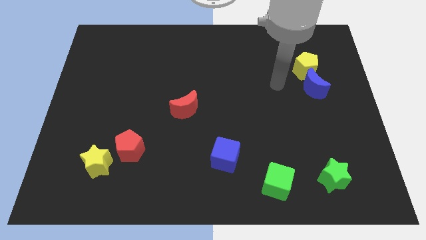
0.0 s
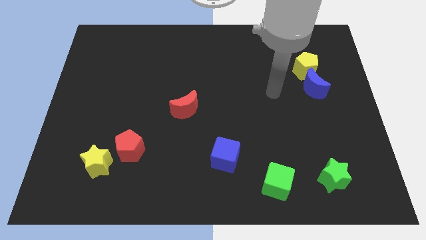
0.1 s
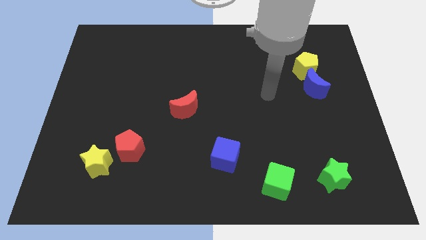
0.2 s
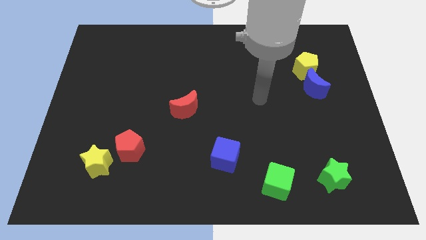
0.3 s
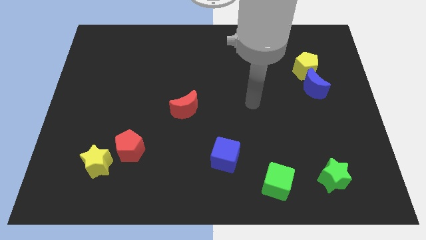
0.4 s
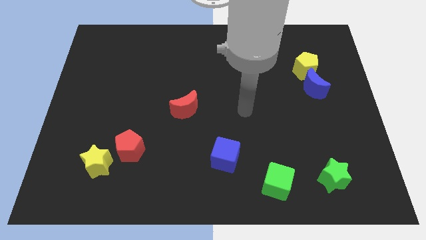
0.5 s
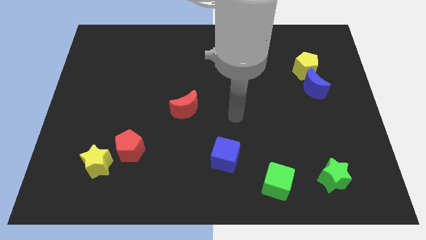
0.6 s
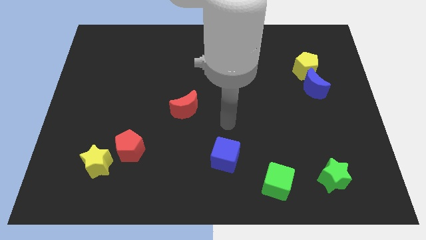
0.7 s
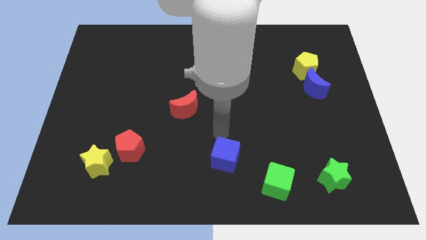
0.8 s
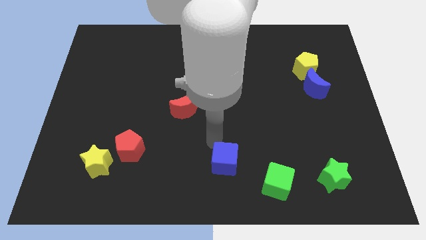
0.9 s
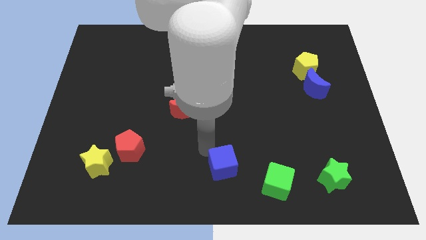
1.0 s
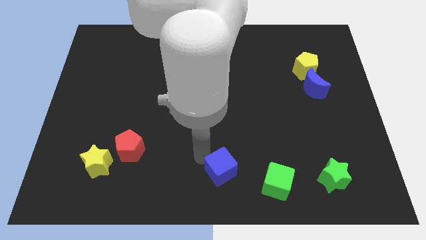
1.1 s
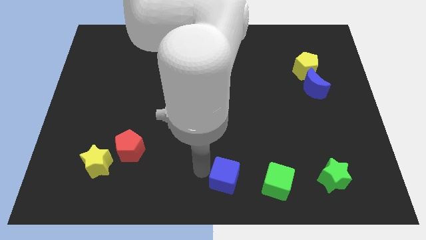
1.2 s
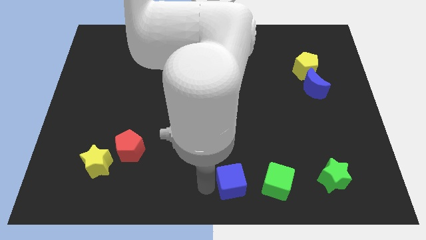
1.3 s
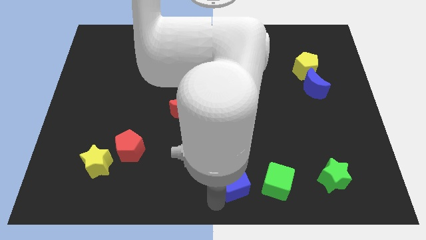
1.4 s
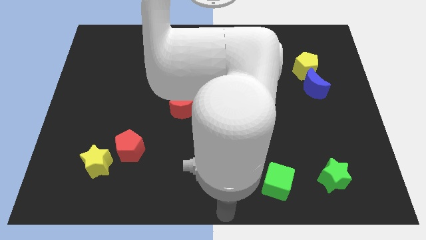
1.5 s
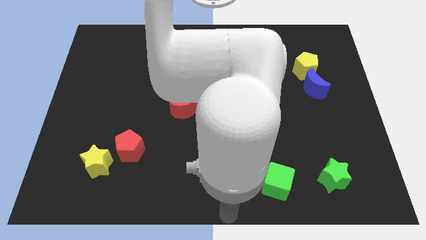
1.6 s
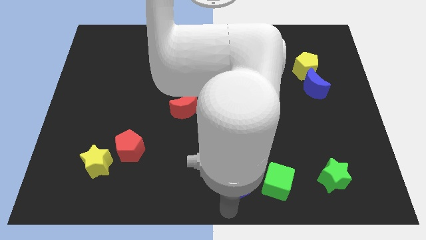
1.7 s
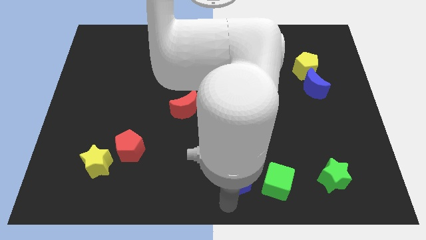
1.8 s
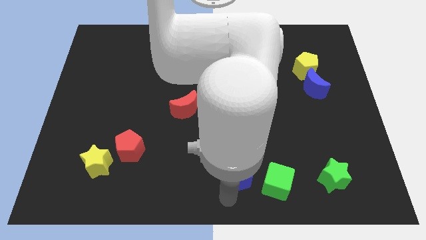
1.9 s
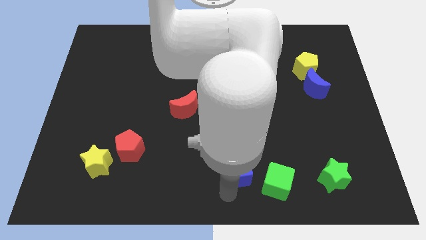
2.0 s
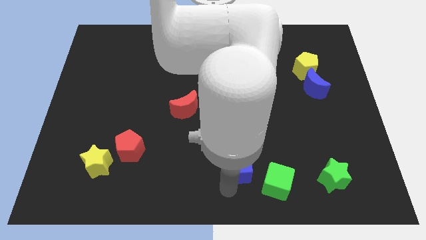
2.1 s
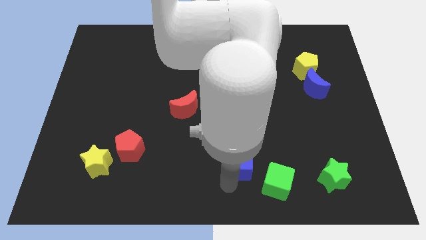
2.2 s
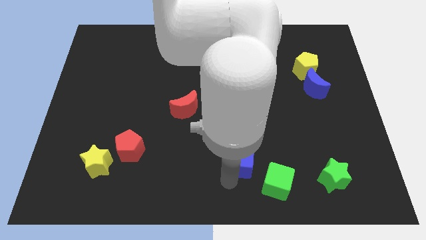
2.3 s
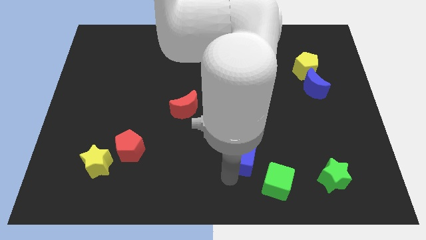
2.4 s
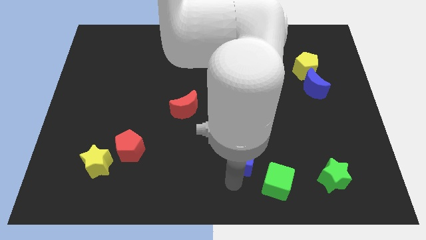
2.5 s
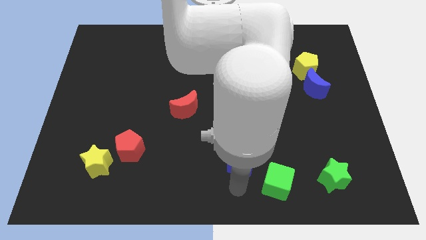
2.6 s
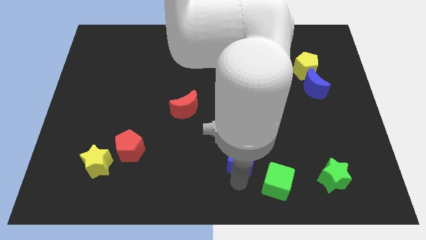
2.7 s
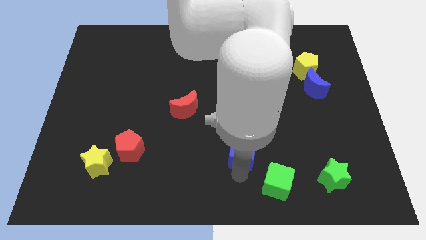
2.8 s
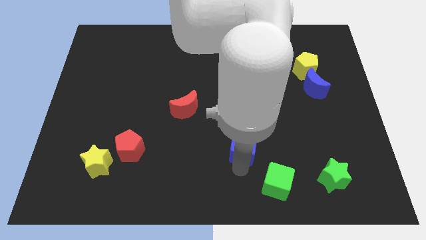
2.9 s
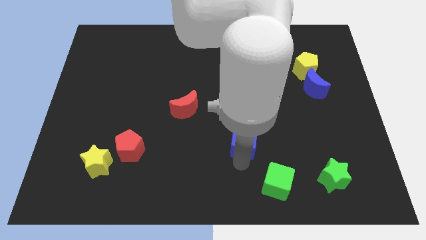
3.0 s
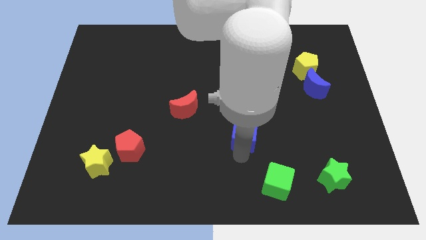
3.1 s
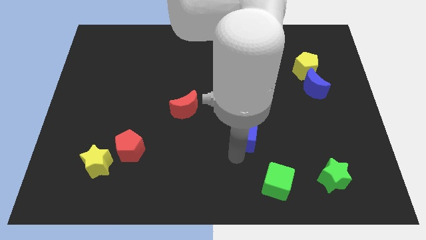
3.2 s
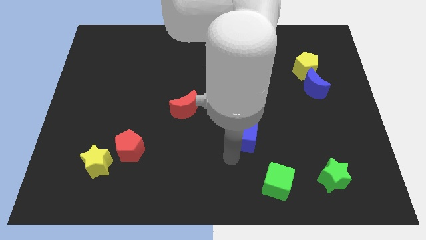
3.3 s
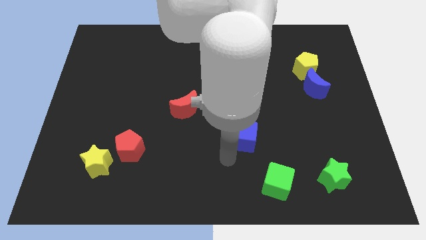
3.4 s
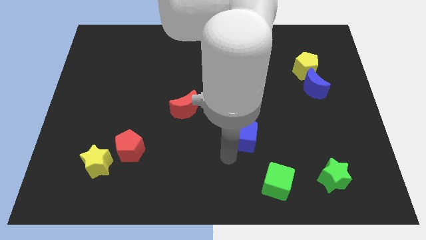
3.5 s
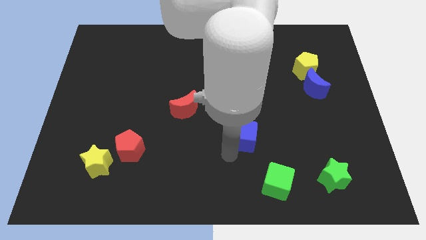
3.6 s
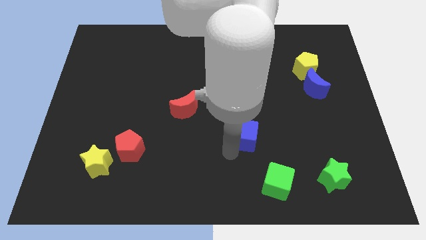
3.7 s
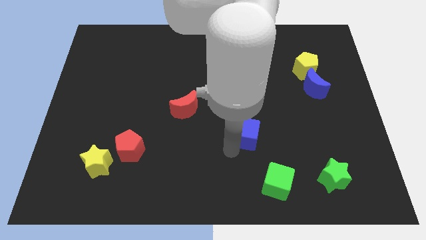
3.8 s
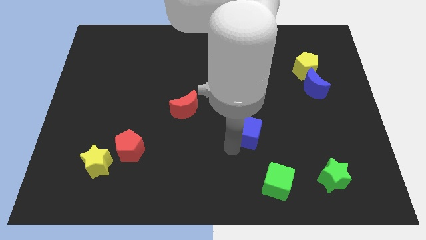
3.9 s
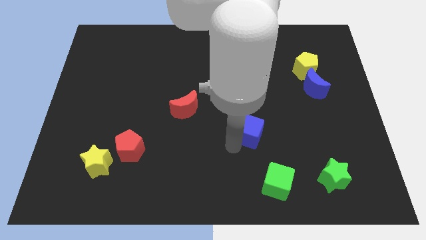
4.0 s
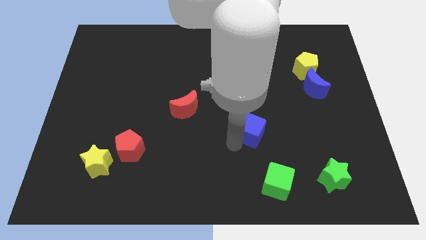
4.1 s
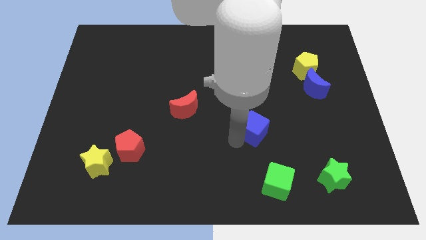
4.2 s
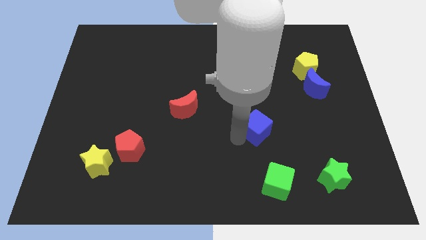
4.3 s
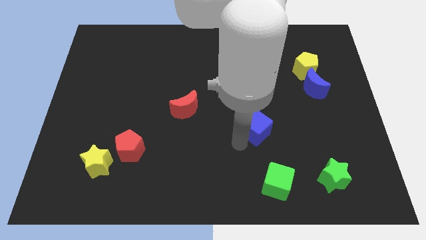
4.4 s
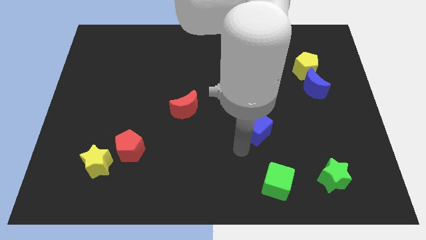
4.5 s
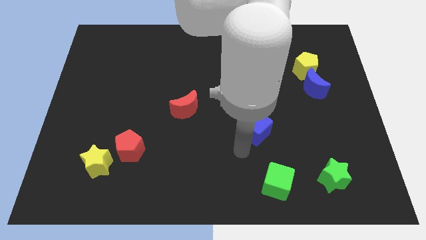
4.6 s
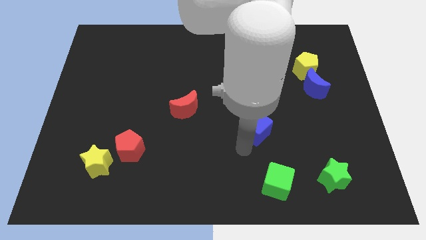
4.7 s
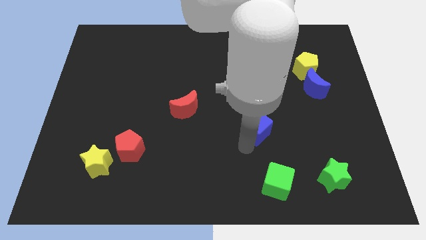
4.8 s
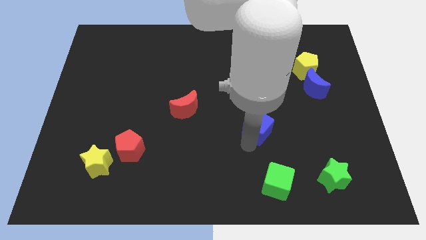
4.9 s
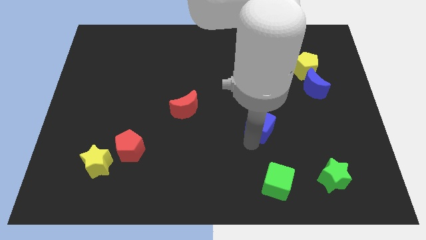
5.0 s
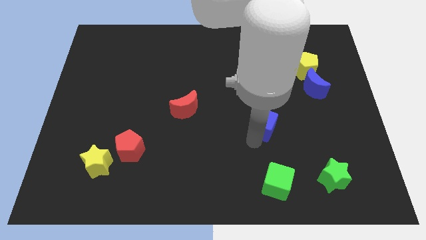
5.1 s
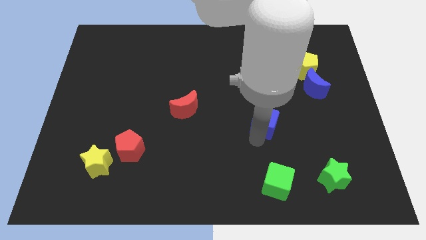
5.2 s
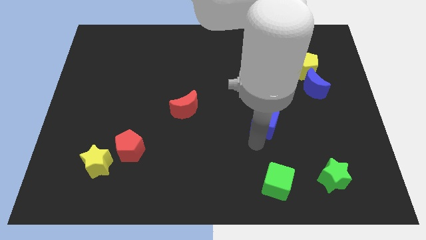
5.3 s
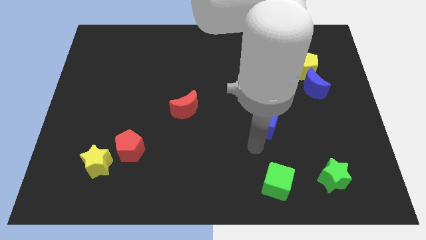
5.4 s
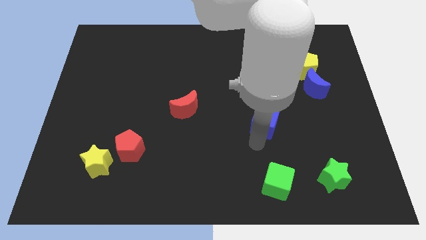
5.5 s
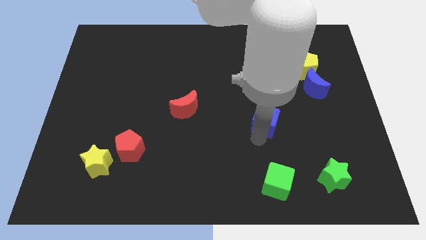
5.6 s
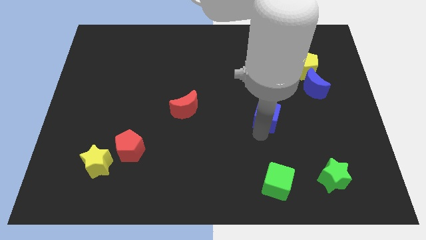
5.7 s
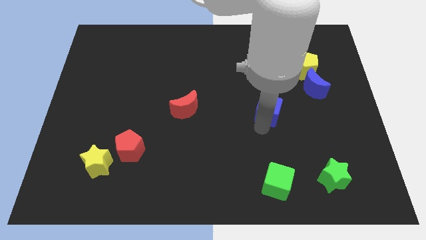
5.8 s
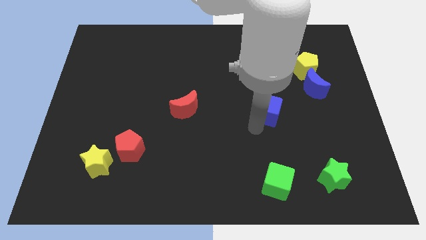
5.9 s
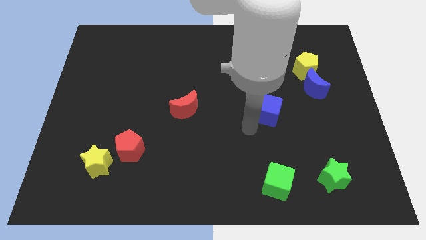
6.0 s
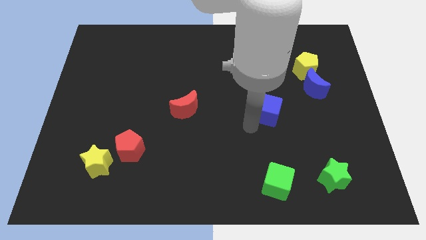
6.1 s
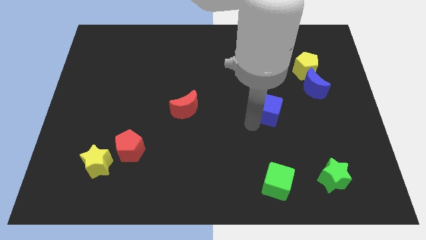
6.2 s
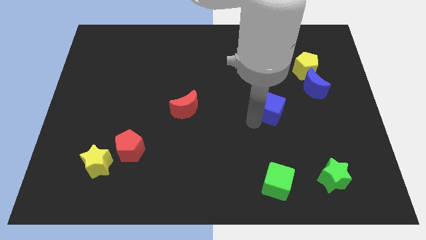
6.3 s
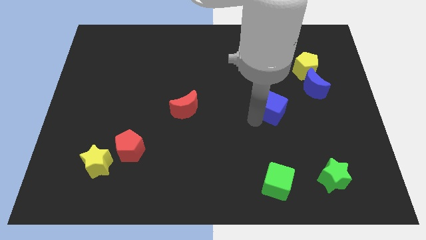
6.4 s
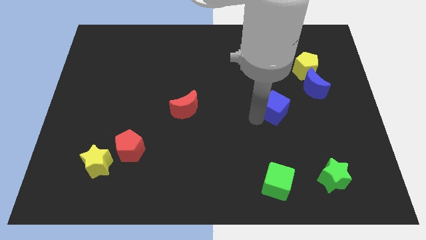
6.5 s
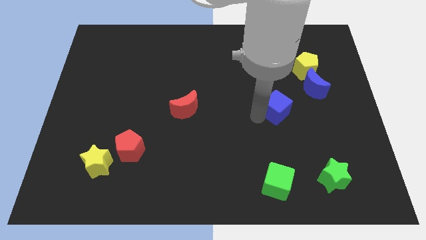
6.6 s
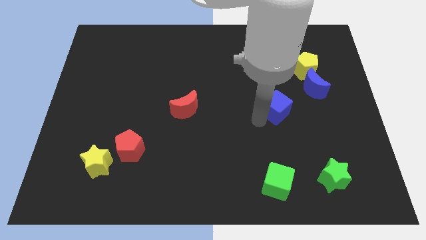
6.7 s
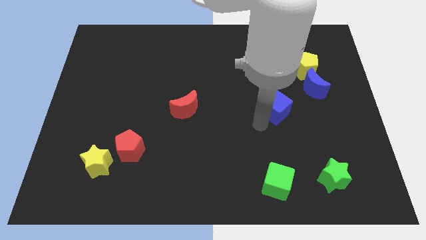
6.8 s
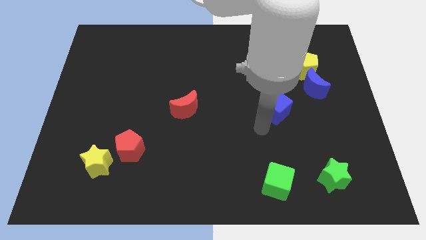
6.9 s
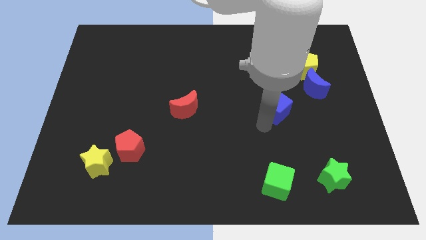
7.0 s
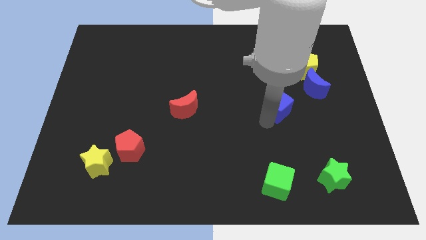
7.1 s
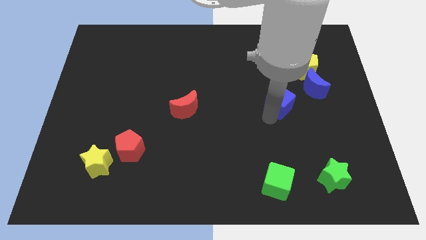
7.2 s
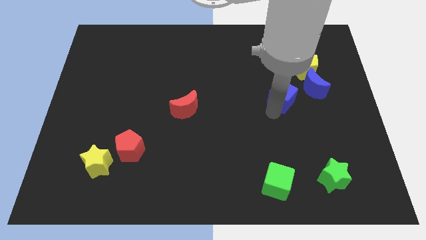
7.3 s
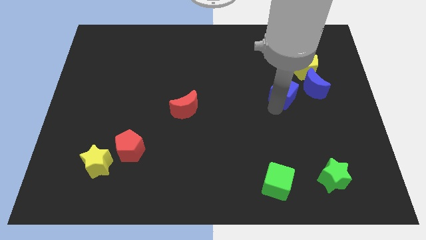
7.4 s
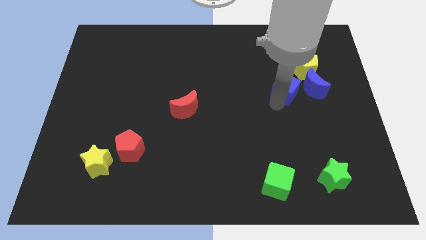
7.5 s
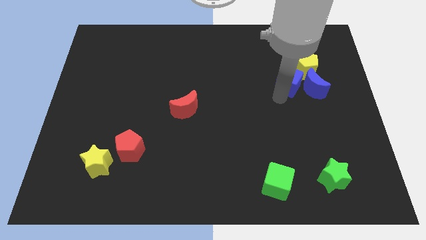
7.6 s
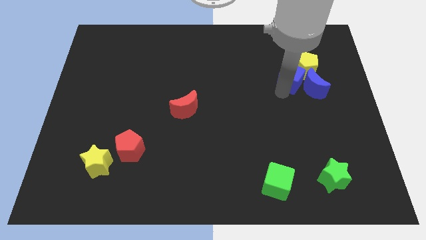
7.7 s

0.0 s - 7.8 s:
put the blue cube towards the yellow pentagon
